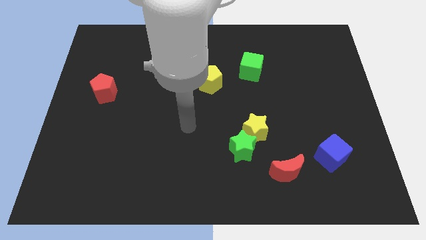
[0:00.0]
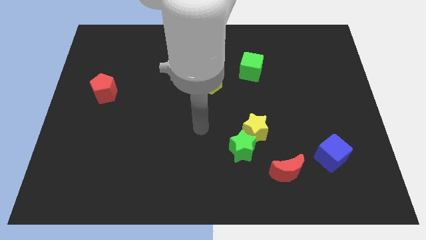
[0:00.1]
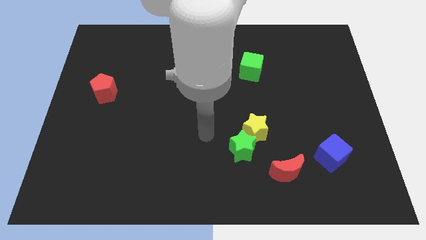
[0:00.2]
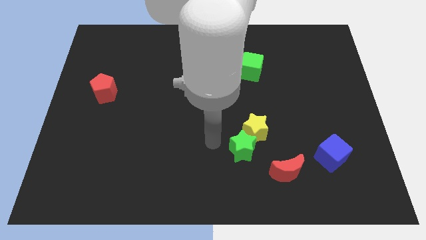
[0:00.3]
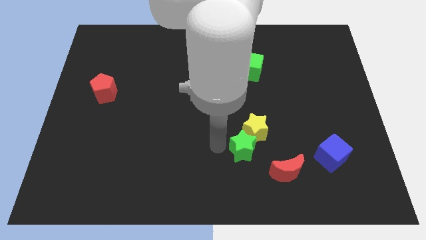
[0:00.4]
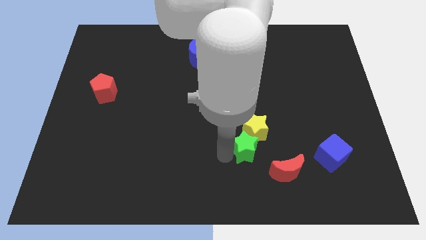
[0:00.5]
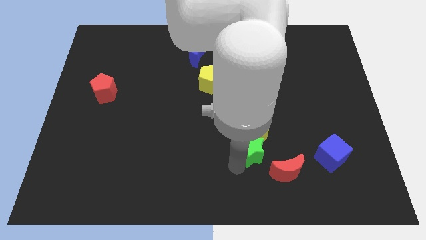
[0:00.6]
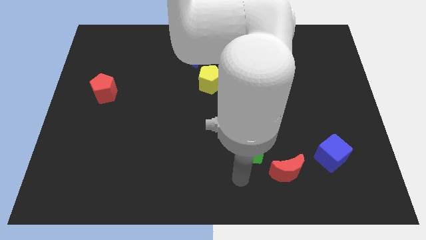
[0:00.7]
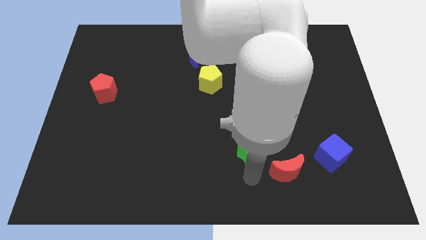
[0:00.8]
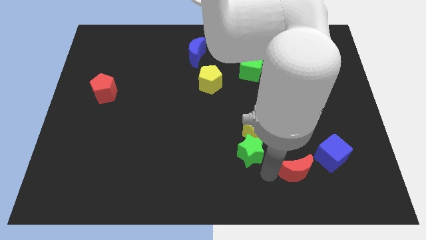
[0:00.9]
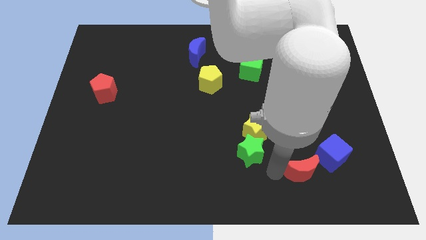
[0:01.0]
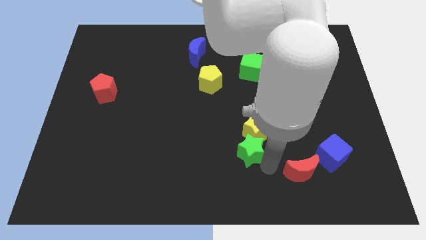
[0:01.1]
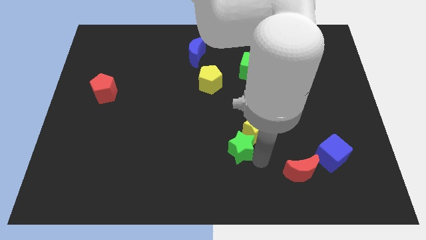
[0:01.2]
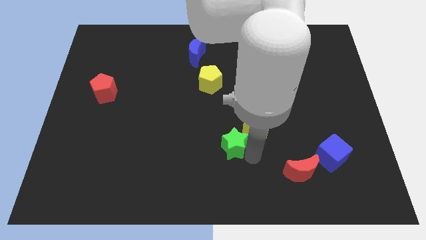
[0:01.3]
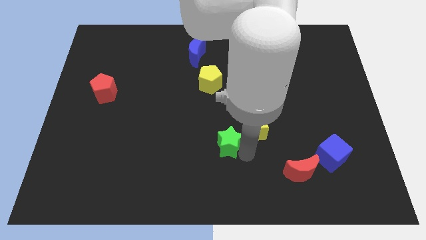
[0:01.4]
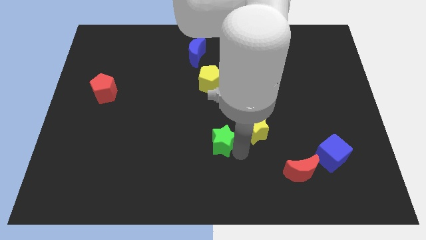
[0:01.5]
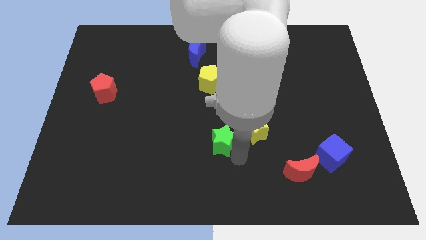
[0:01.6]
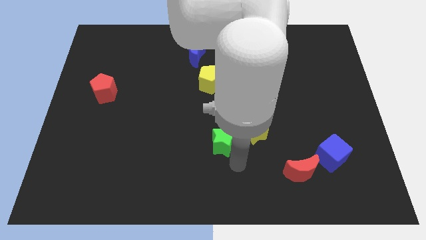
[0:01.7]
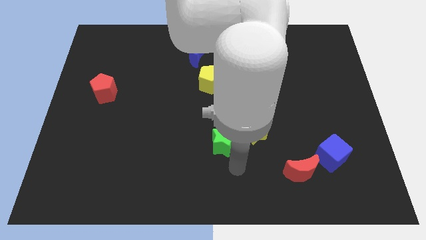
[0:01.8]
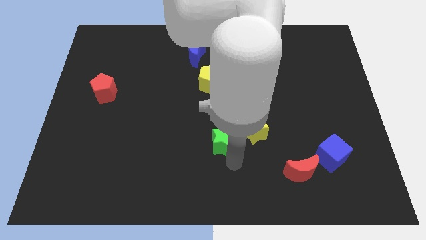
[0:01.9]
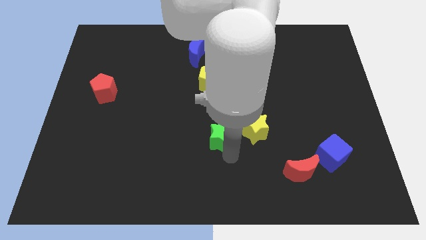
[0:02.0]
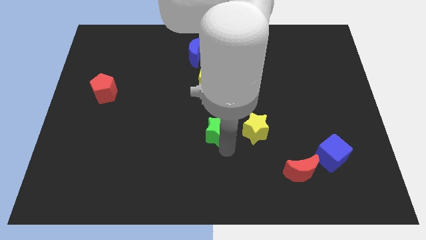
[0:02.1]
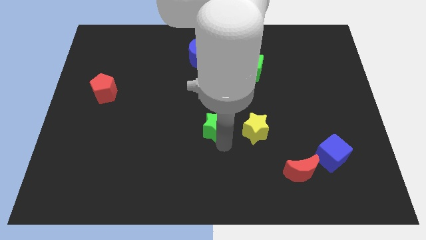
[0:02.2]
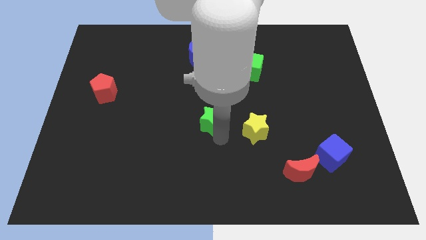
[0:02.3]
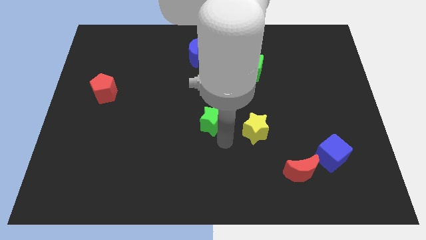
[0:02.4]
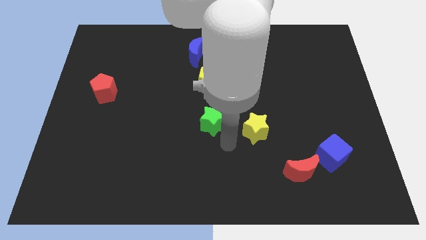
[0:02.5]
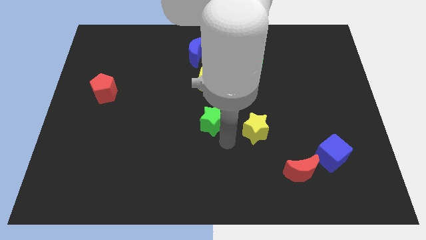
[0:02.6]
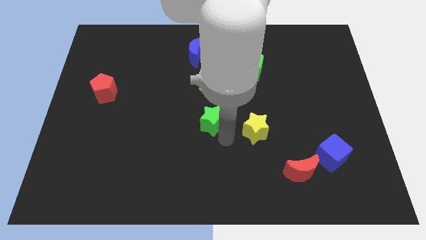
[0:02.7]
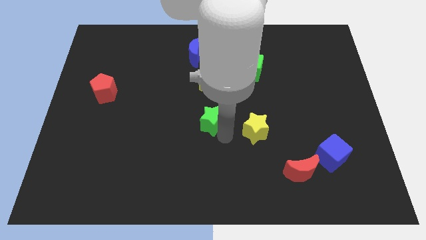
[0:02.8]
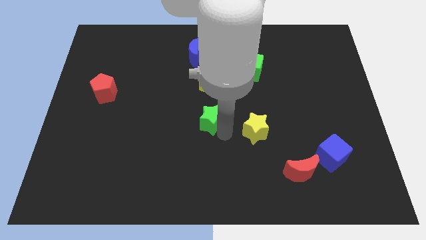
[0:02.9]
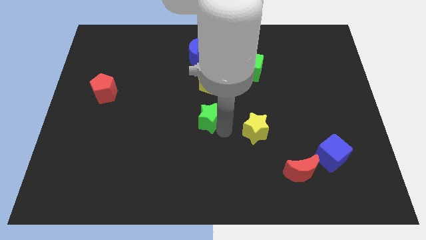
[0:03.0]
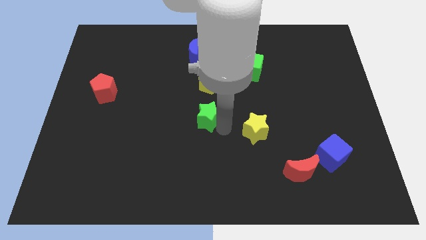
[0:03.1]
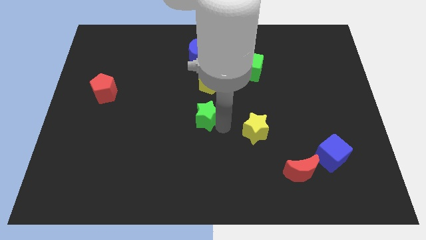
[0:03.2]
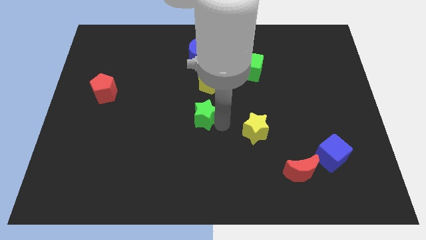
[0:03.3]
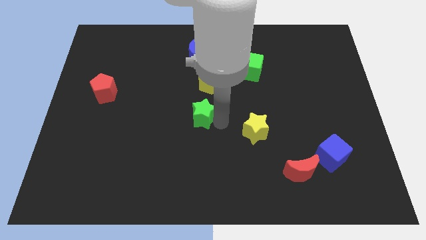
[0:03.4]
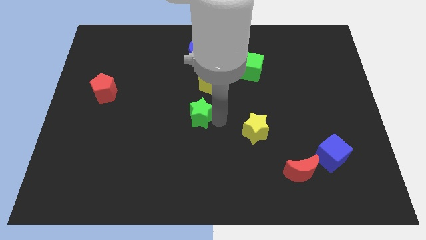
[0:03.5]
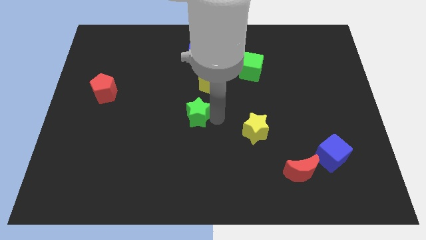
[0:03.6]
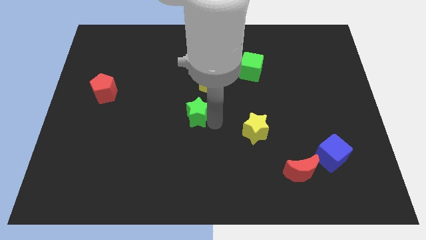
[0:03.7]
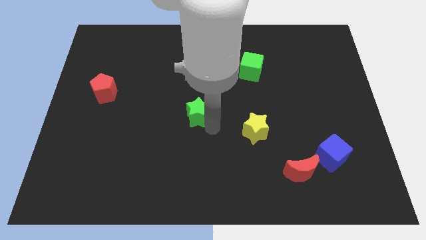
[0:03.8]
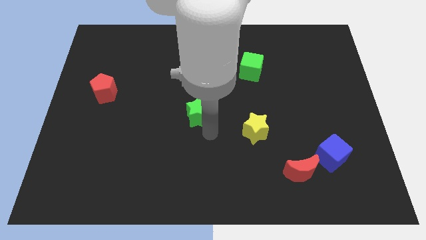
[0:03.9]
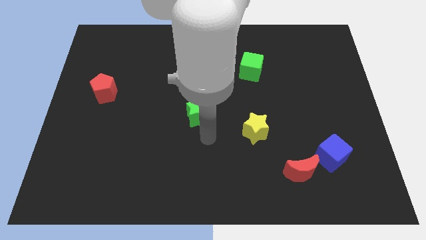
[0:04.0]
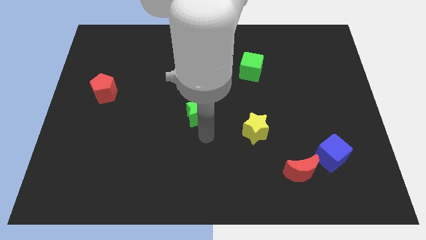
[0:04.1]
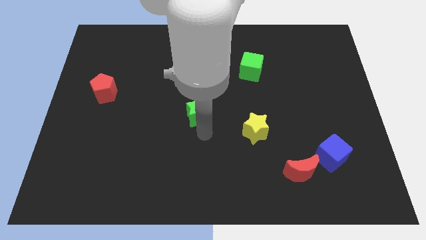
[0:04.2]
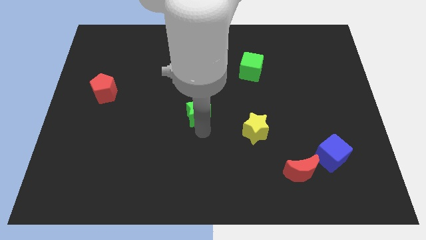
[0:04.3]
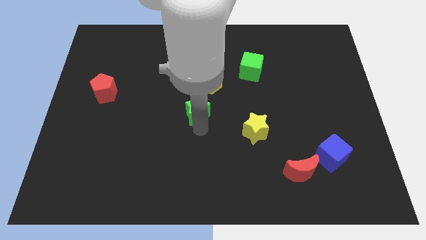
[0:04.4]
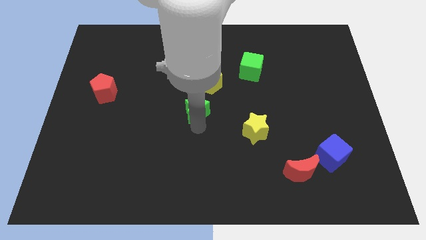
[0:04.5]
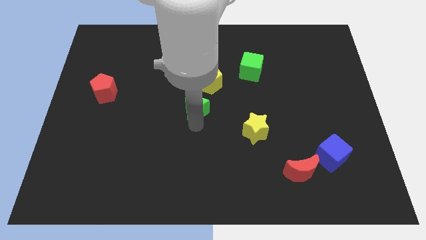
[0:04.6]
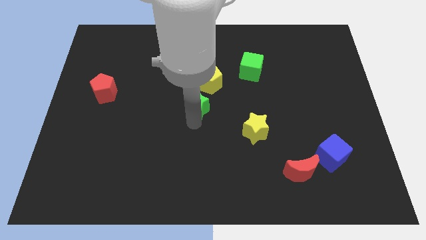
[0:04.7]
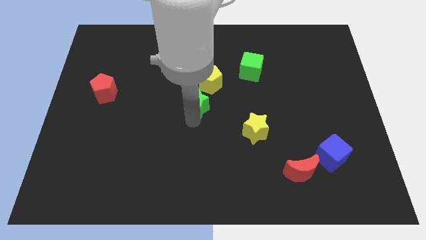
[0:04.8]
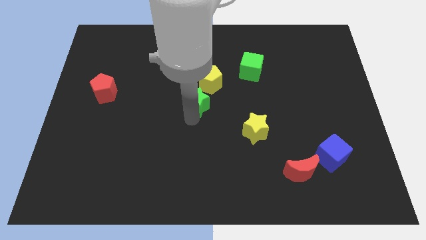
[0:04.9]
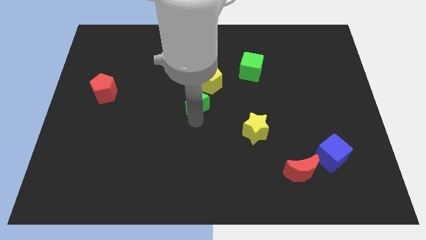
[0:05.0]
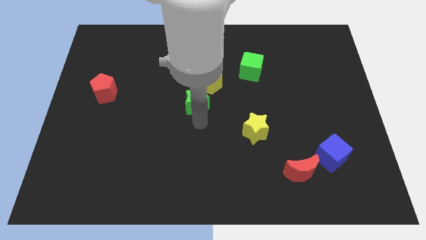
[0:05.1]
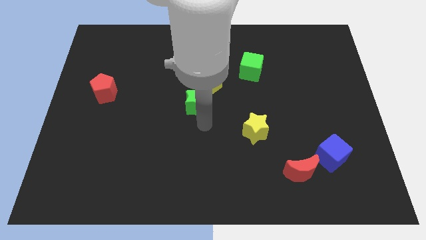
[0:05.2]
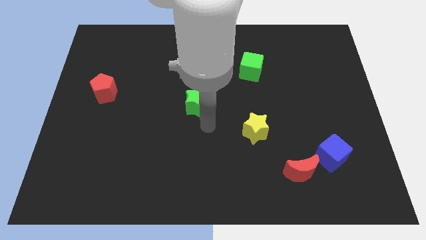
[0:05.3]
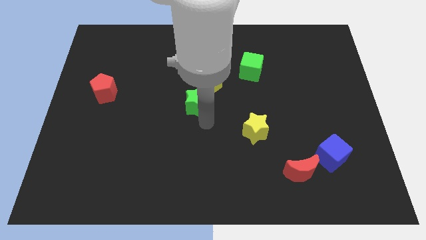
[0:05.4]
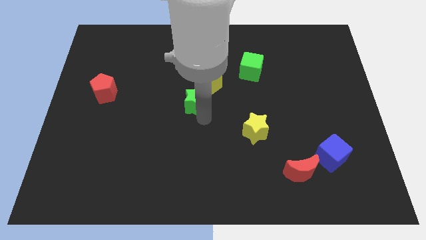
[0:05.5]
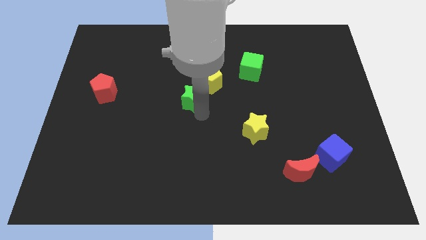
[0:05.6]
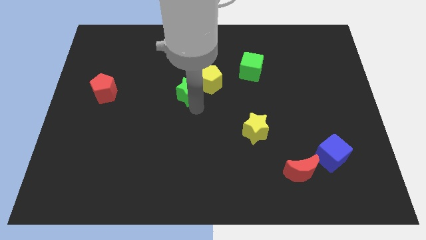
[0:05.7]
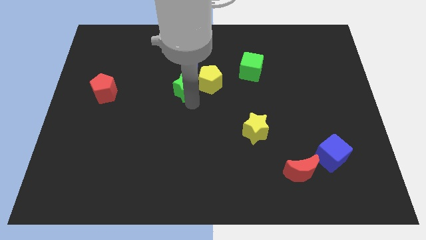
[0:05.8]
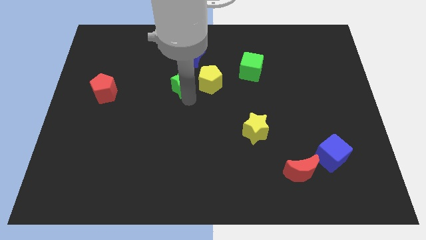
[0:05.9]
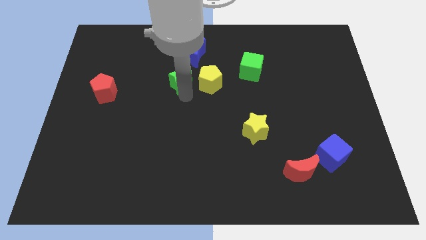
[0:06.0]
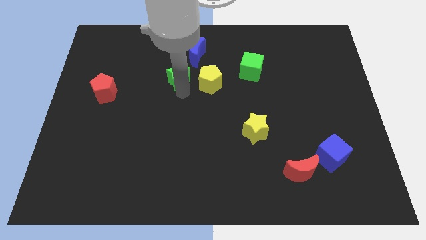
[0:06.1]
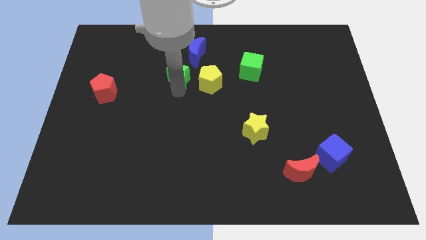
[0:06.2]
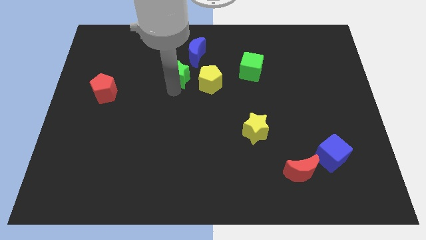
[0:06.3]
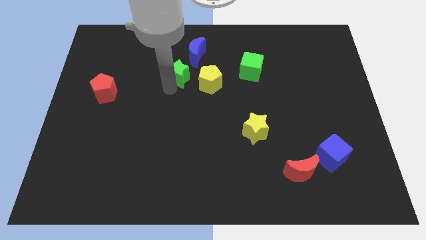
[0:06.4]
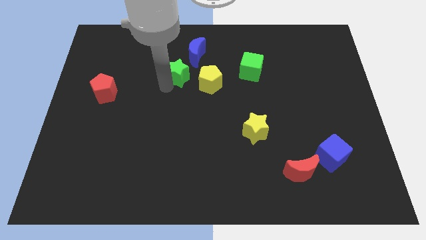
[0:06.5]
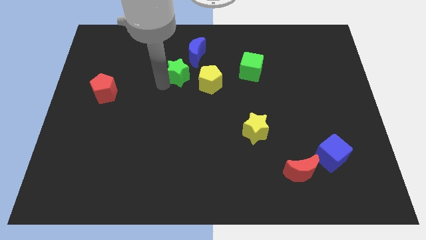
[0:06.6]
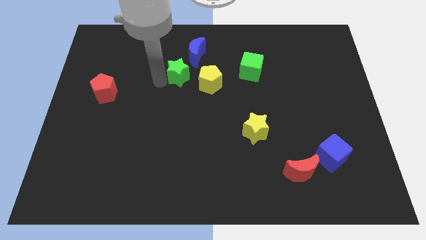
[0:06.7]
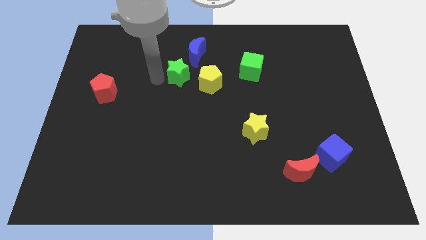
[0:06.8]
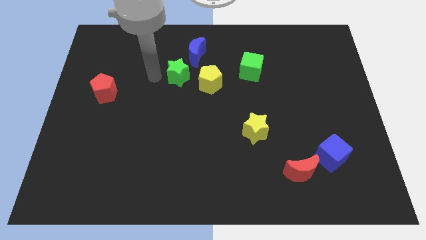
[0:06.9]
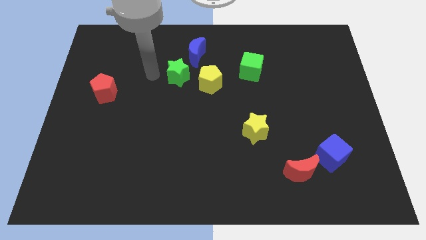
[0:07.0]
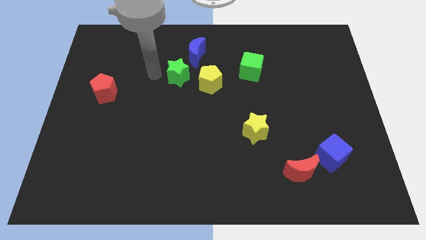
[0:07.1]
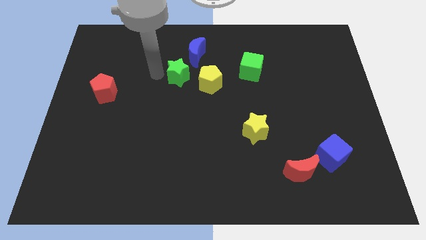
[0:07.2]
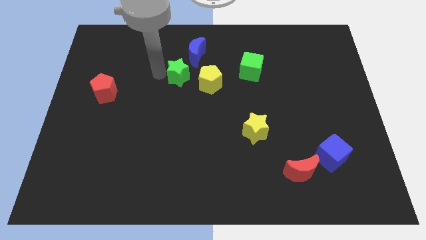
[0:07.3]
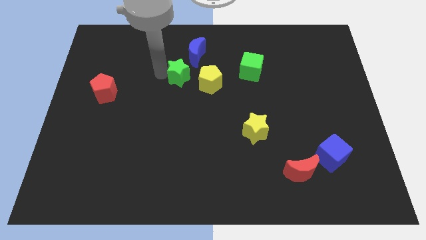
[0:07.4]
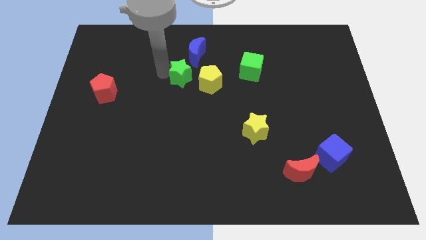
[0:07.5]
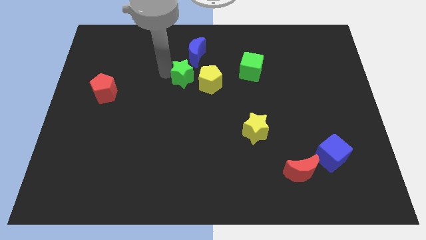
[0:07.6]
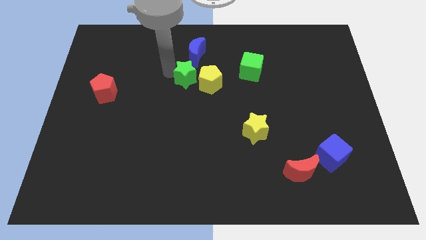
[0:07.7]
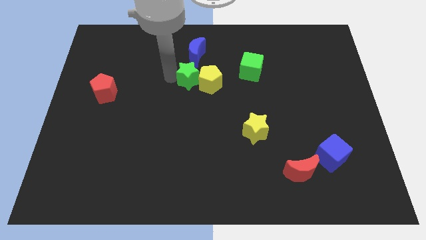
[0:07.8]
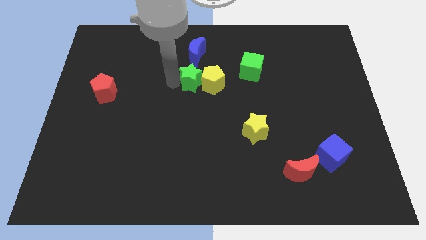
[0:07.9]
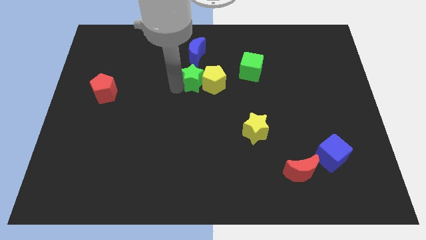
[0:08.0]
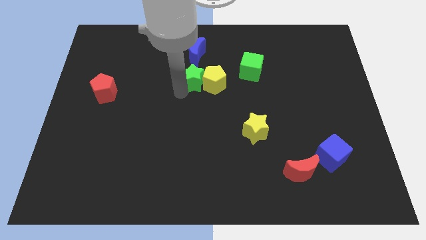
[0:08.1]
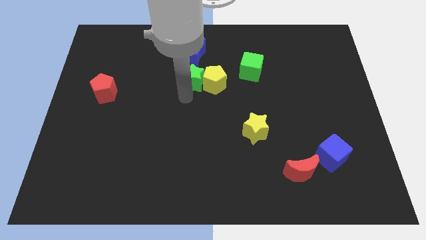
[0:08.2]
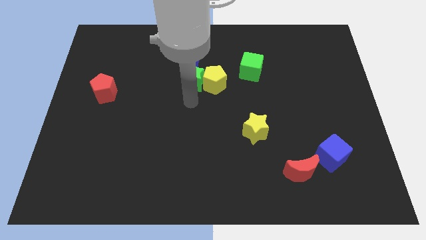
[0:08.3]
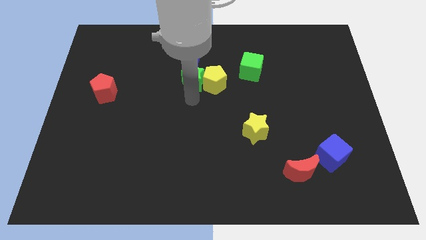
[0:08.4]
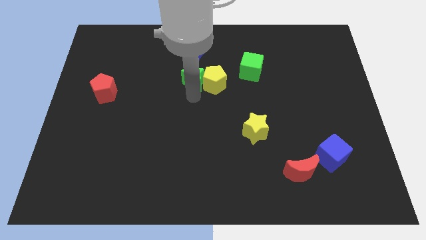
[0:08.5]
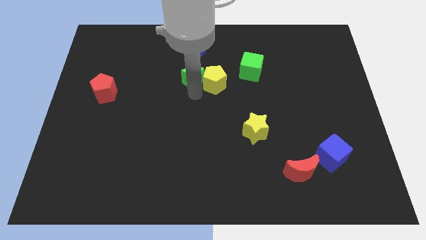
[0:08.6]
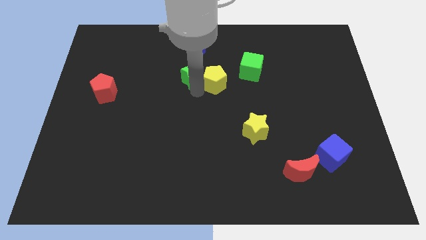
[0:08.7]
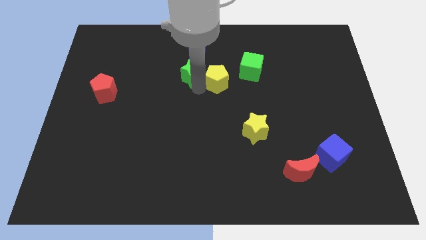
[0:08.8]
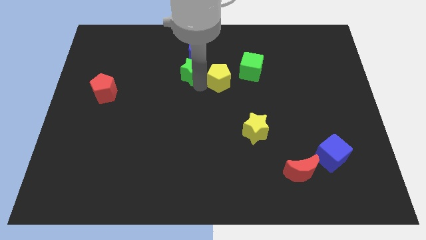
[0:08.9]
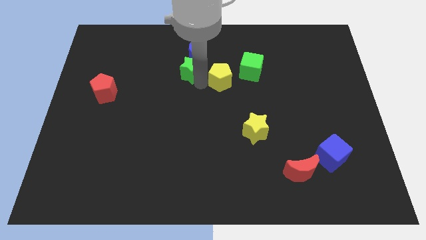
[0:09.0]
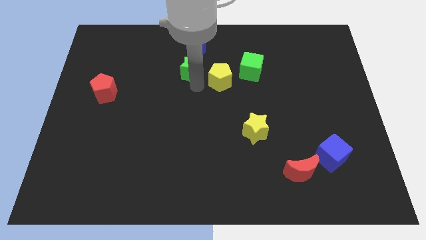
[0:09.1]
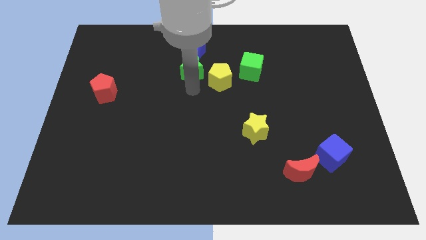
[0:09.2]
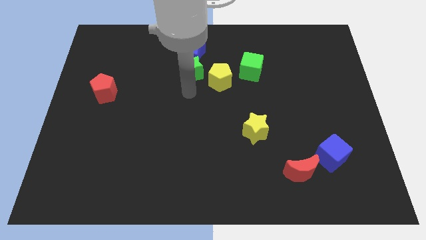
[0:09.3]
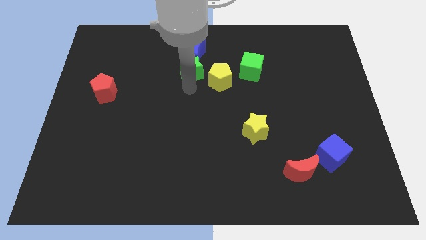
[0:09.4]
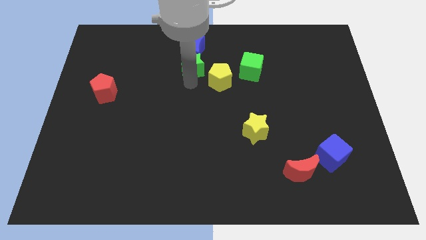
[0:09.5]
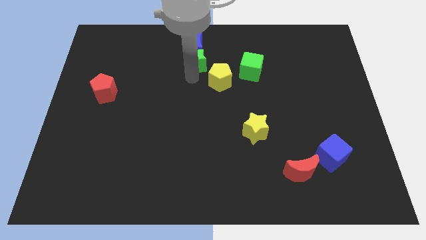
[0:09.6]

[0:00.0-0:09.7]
push the green star to the blue moon
